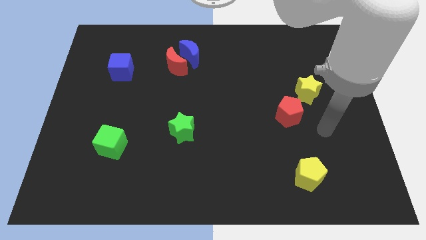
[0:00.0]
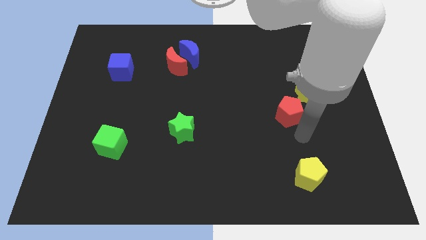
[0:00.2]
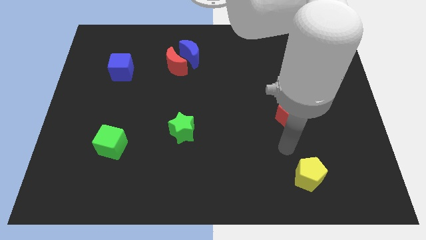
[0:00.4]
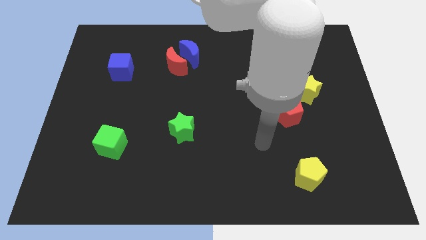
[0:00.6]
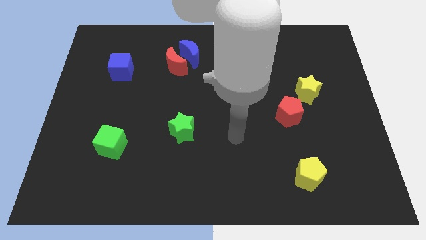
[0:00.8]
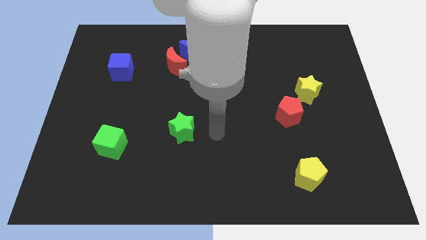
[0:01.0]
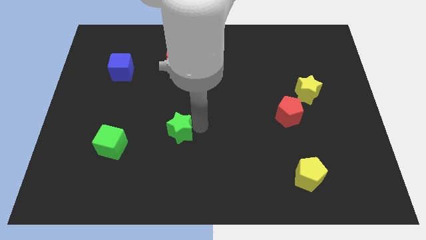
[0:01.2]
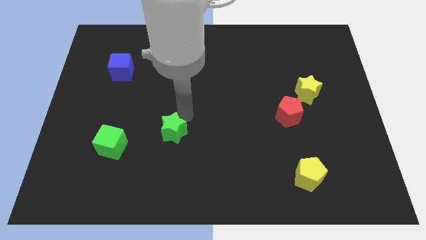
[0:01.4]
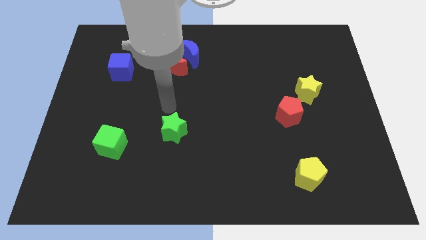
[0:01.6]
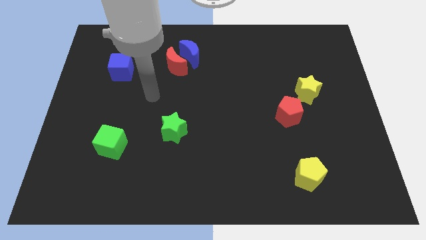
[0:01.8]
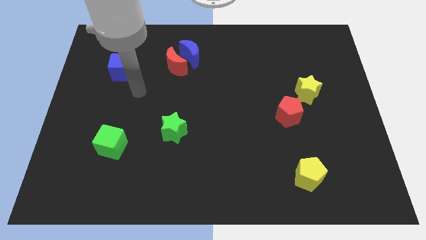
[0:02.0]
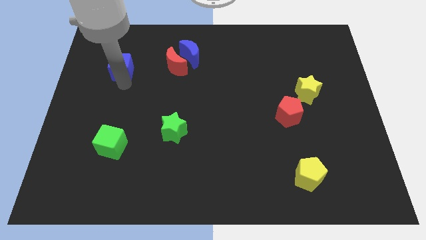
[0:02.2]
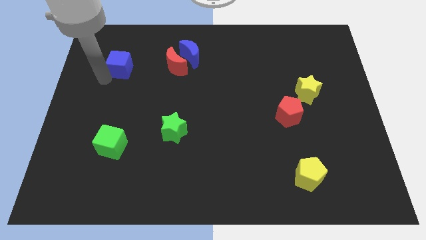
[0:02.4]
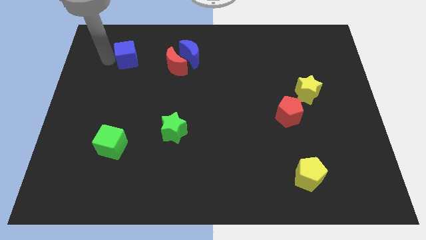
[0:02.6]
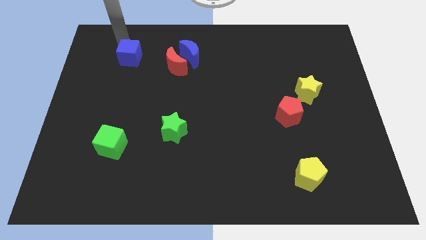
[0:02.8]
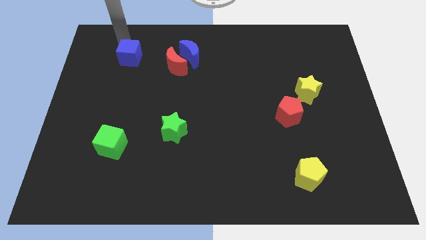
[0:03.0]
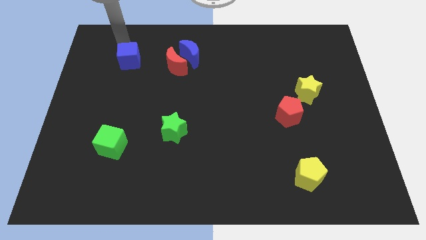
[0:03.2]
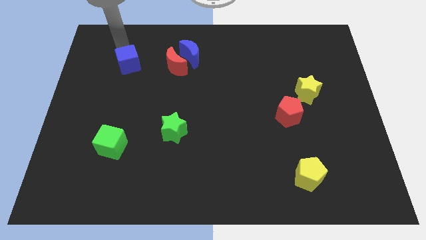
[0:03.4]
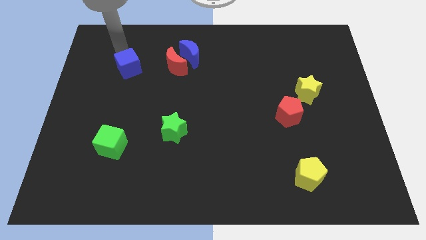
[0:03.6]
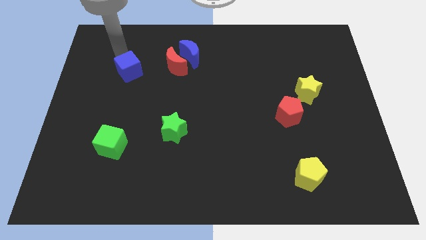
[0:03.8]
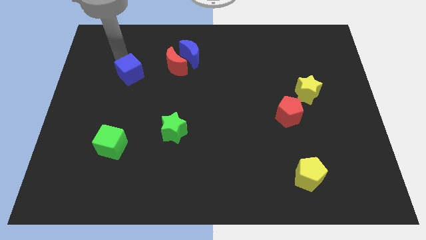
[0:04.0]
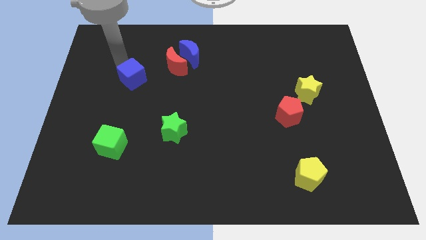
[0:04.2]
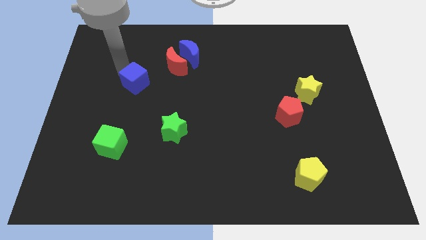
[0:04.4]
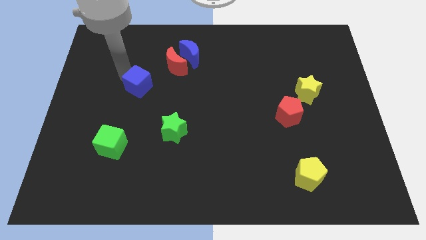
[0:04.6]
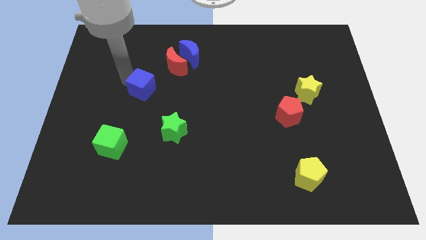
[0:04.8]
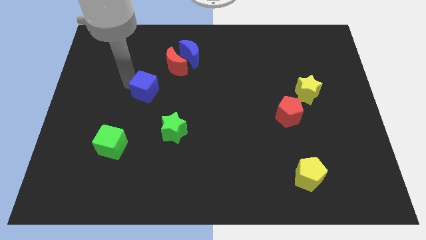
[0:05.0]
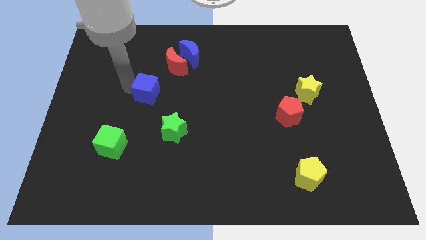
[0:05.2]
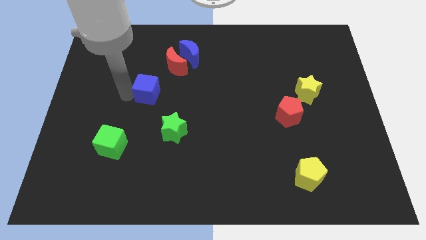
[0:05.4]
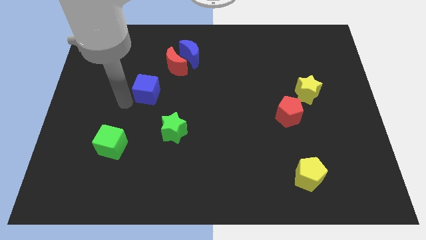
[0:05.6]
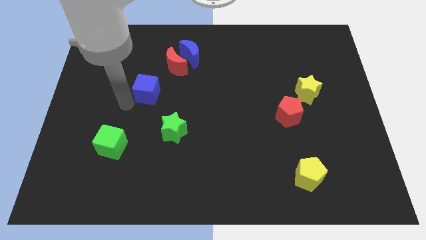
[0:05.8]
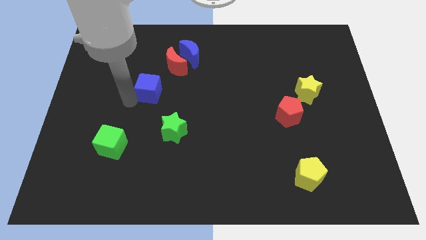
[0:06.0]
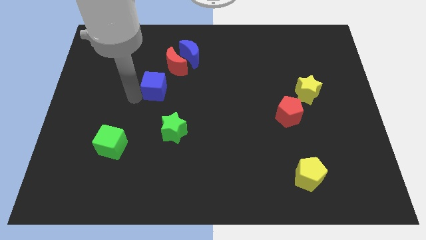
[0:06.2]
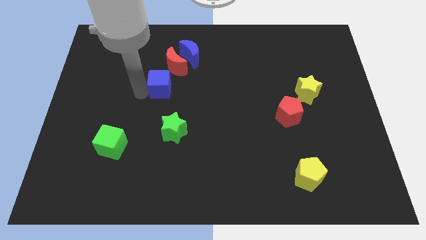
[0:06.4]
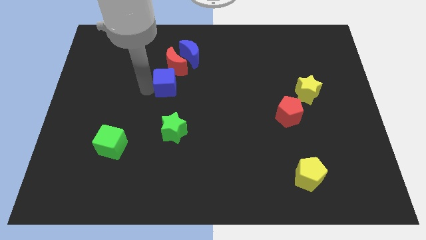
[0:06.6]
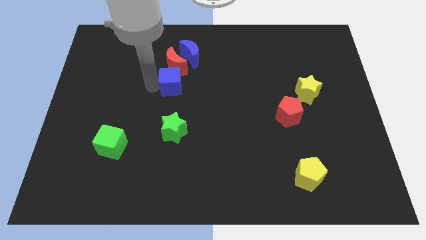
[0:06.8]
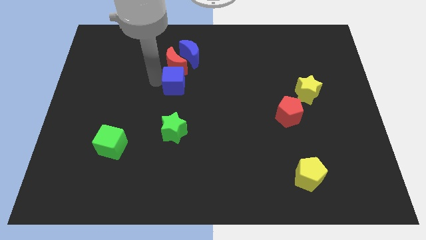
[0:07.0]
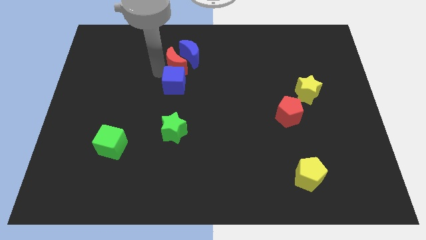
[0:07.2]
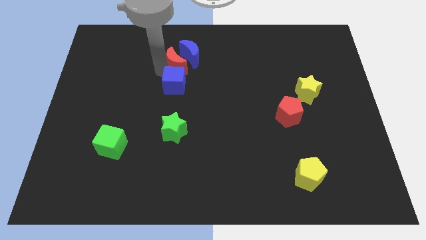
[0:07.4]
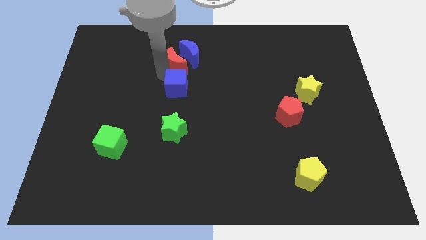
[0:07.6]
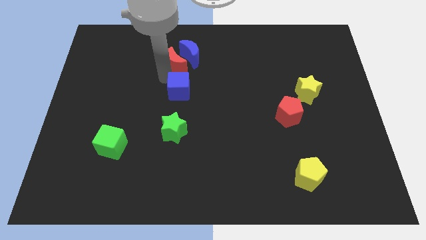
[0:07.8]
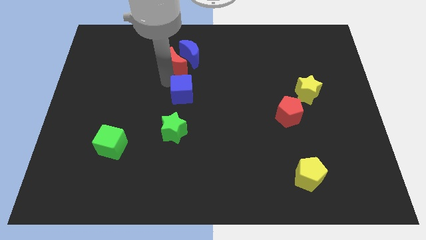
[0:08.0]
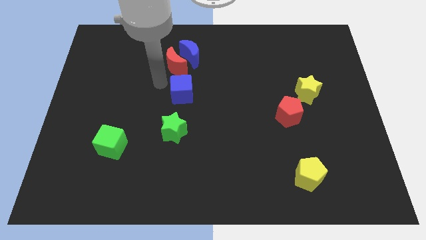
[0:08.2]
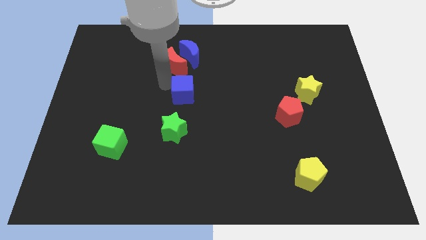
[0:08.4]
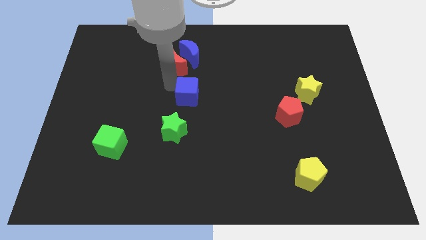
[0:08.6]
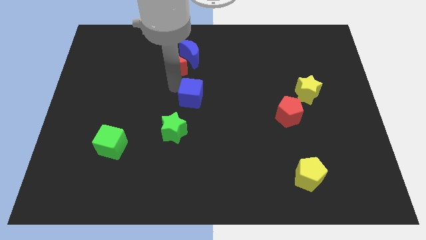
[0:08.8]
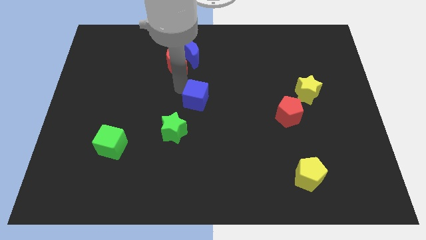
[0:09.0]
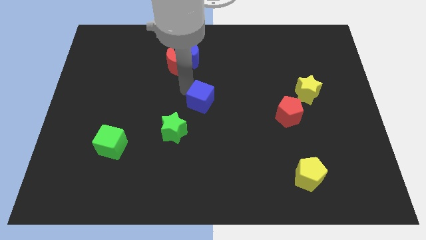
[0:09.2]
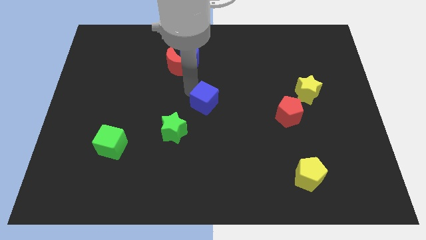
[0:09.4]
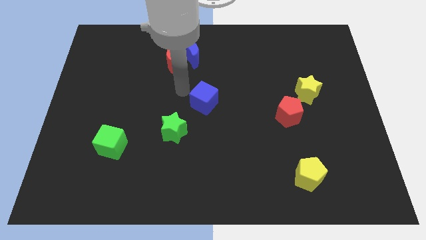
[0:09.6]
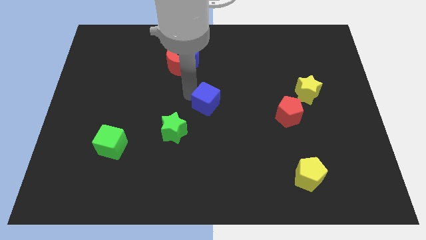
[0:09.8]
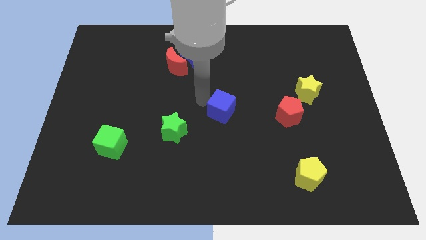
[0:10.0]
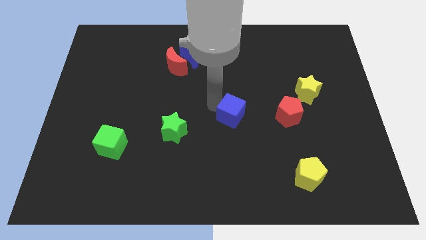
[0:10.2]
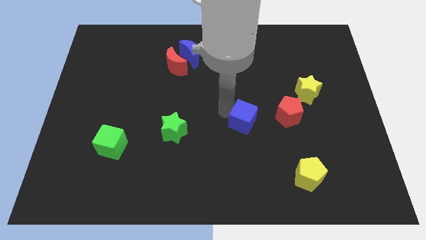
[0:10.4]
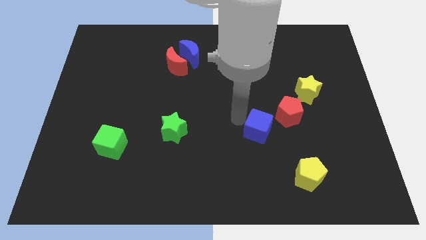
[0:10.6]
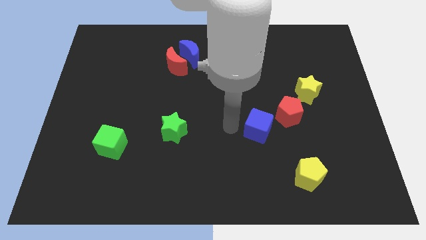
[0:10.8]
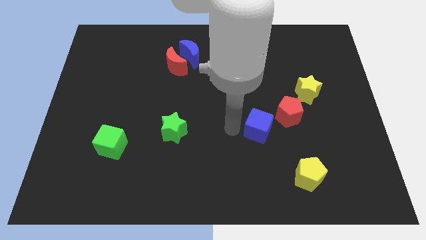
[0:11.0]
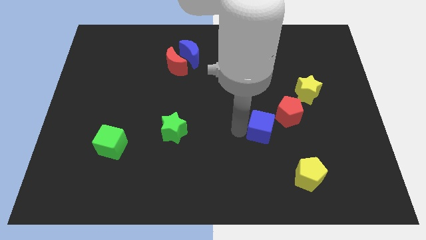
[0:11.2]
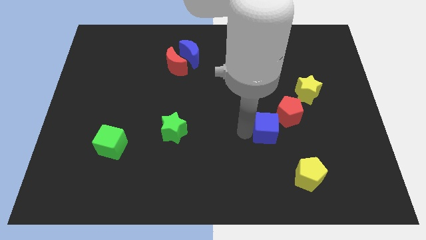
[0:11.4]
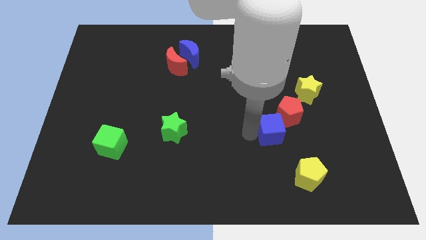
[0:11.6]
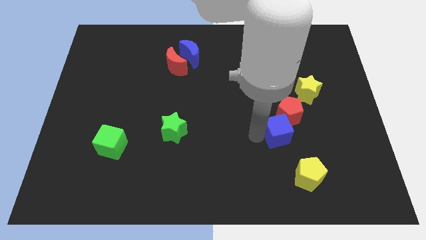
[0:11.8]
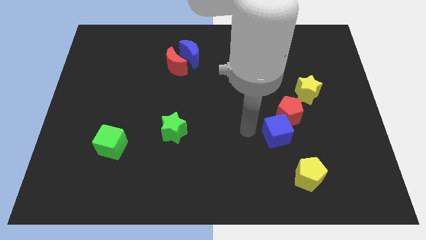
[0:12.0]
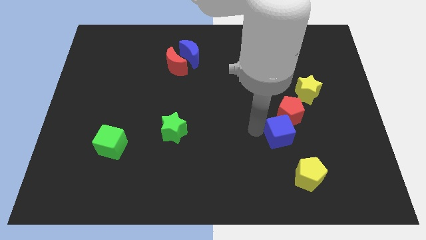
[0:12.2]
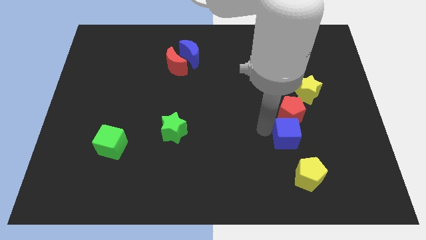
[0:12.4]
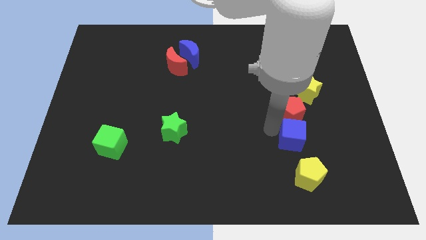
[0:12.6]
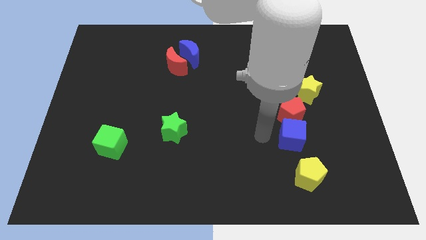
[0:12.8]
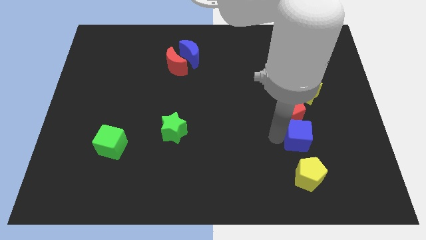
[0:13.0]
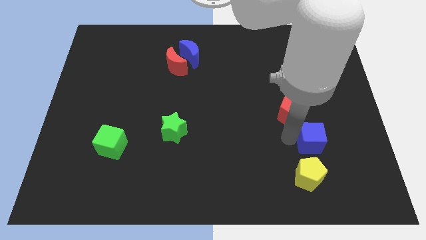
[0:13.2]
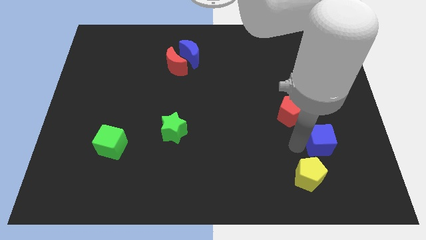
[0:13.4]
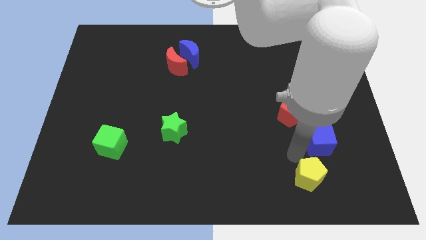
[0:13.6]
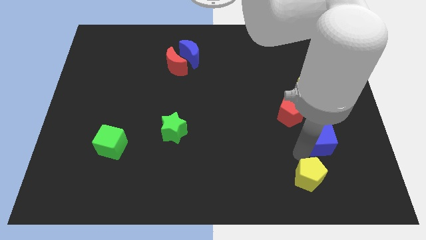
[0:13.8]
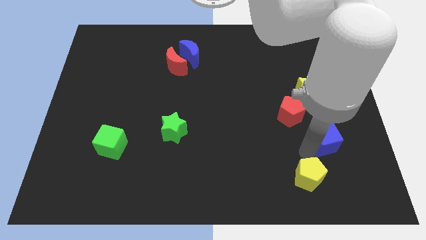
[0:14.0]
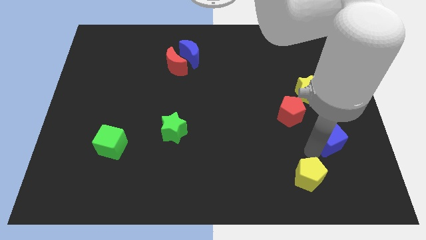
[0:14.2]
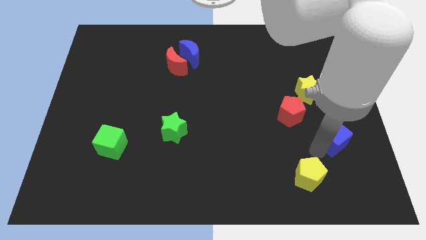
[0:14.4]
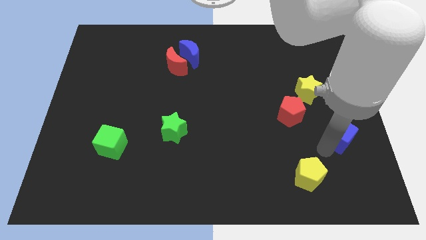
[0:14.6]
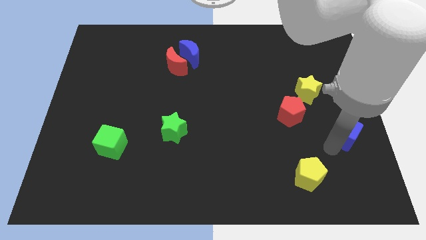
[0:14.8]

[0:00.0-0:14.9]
put the blue cube to the center right
